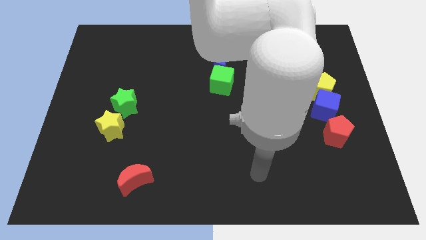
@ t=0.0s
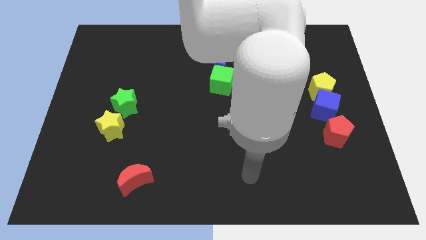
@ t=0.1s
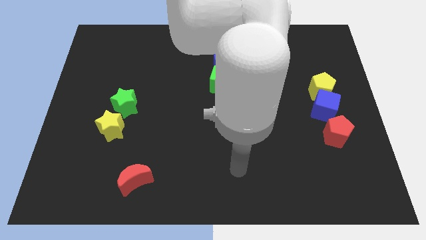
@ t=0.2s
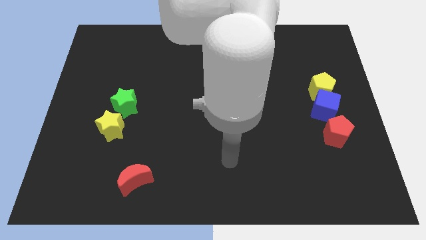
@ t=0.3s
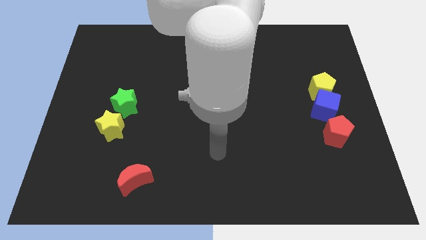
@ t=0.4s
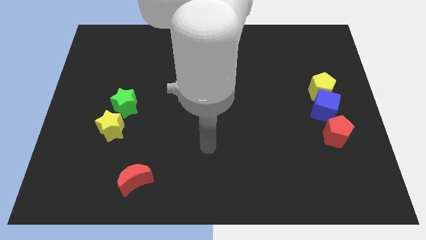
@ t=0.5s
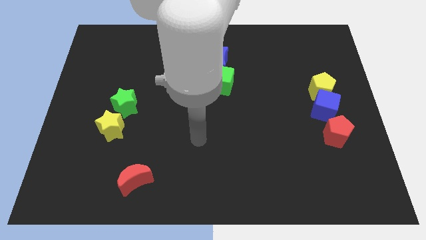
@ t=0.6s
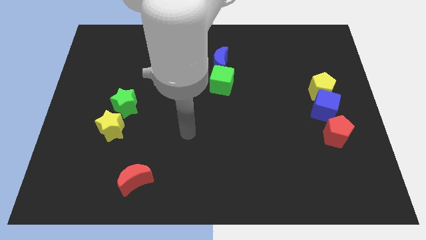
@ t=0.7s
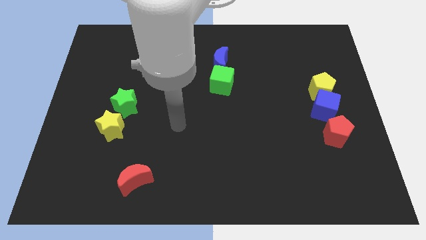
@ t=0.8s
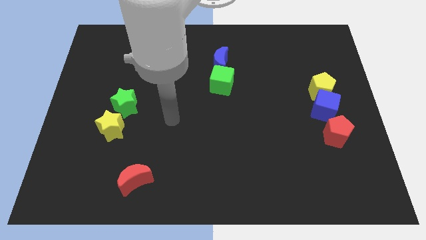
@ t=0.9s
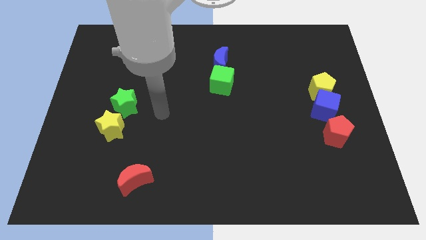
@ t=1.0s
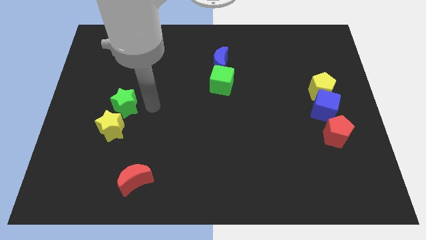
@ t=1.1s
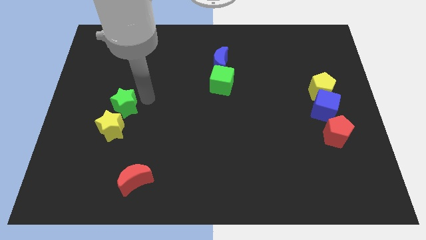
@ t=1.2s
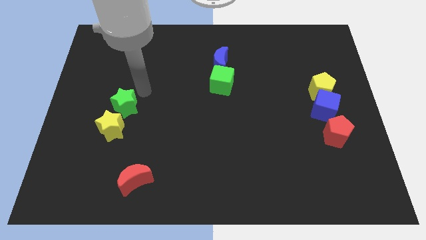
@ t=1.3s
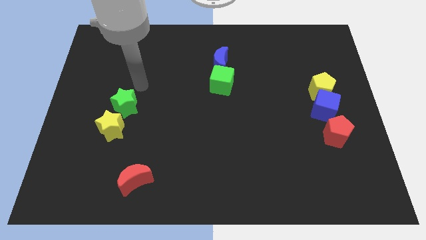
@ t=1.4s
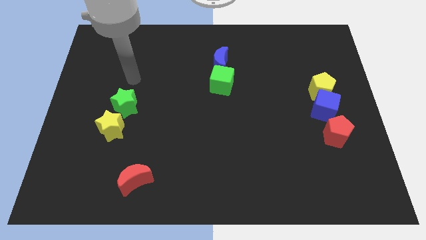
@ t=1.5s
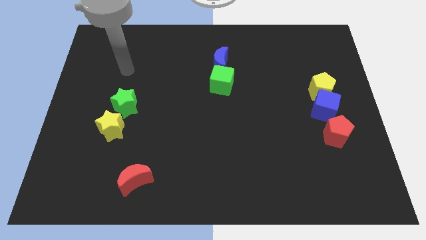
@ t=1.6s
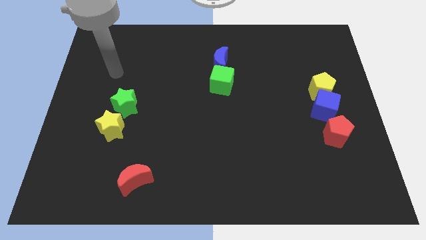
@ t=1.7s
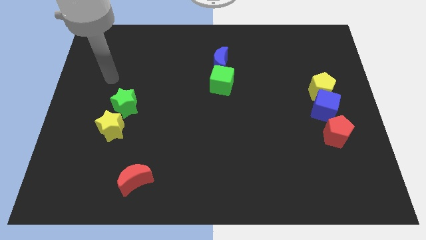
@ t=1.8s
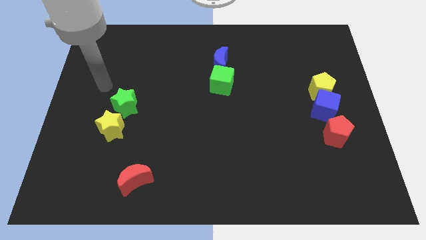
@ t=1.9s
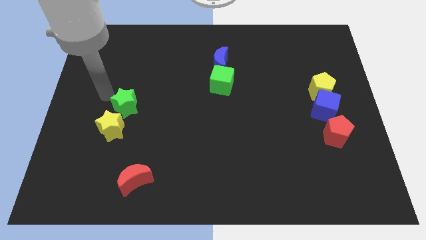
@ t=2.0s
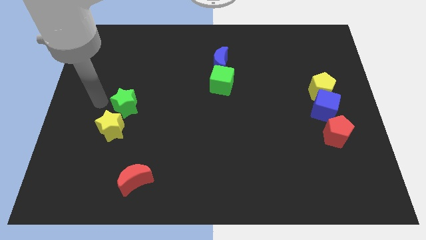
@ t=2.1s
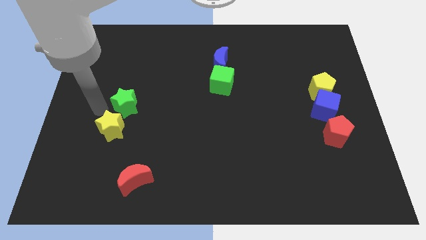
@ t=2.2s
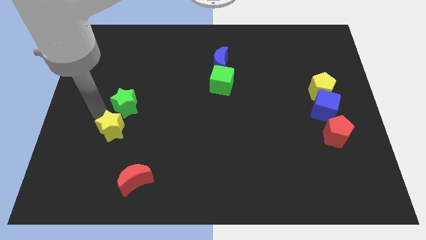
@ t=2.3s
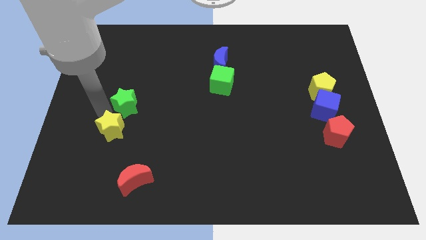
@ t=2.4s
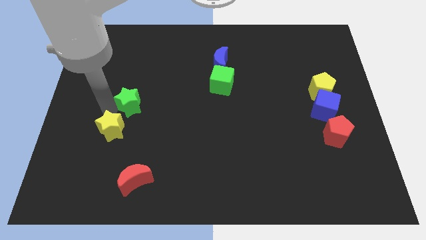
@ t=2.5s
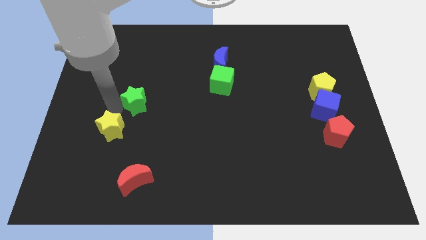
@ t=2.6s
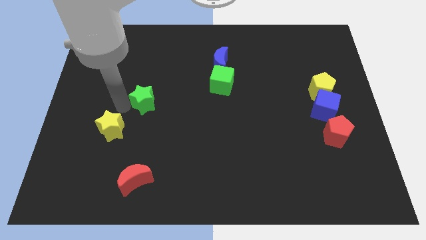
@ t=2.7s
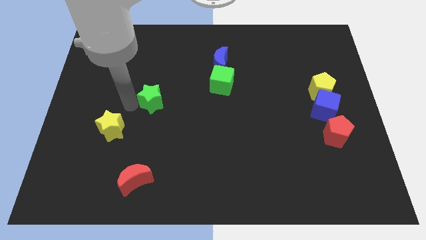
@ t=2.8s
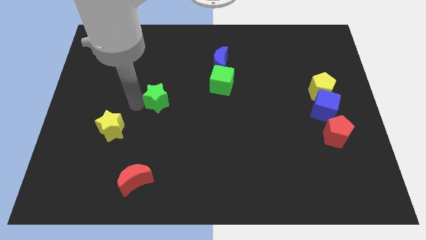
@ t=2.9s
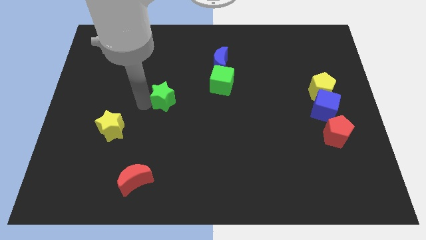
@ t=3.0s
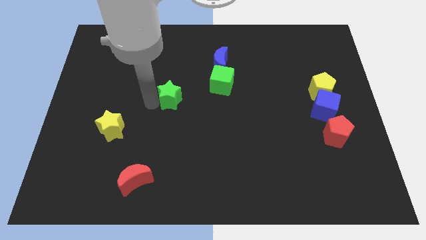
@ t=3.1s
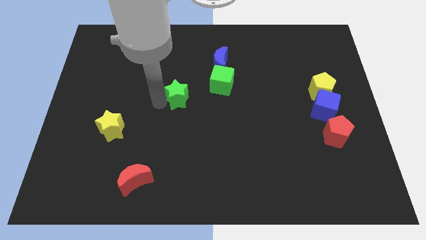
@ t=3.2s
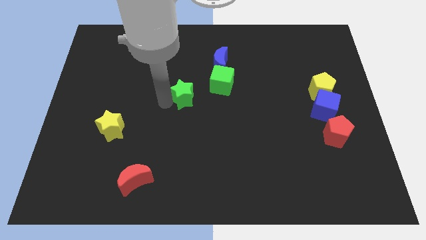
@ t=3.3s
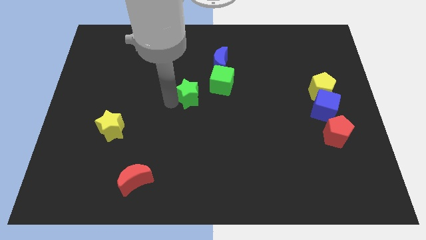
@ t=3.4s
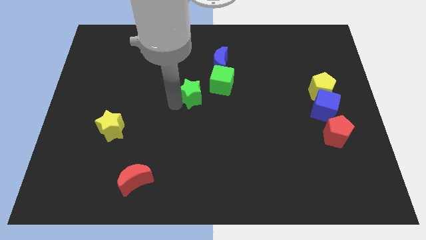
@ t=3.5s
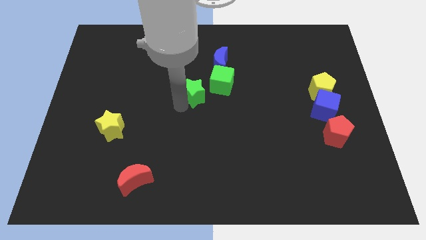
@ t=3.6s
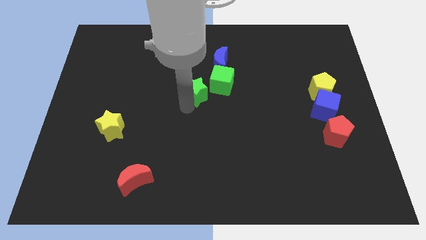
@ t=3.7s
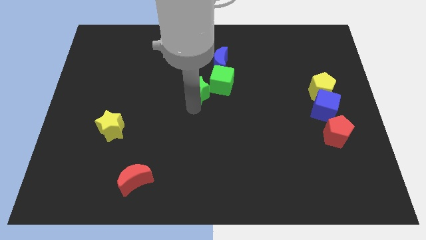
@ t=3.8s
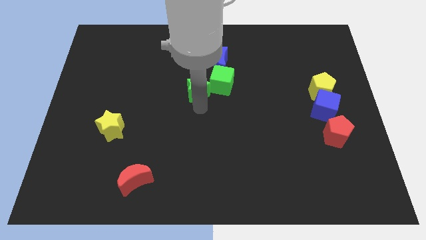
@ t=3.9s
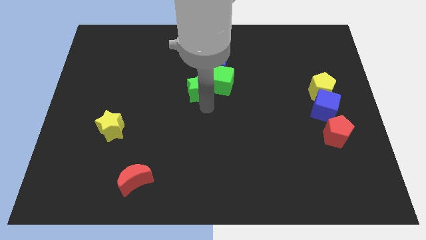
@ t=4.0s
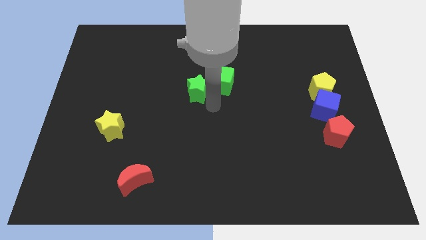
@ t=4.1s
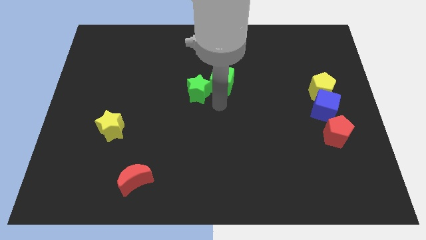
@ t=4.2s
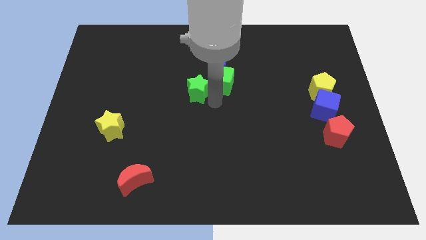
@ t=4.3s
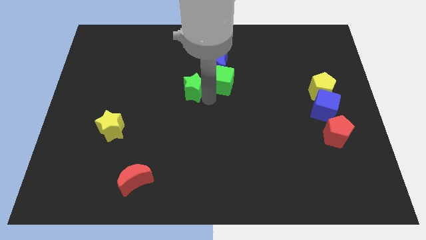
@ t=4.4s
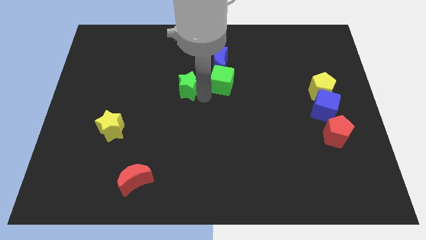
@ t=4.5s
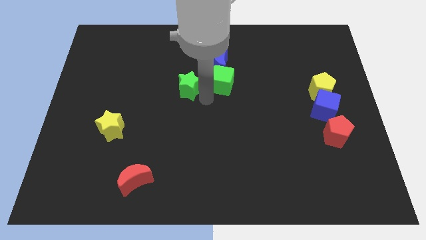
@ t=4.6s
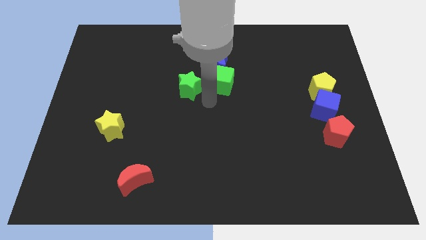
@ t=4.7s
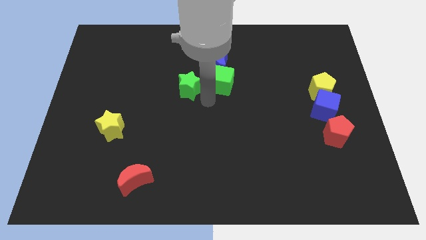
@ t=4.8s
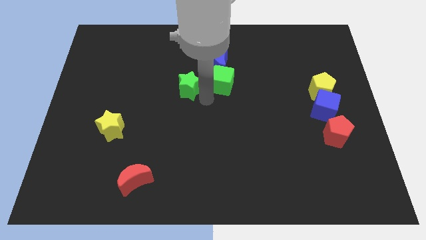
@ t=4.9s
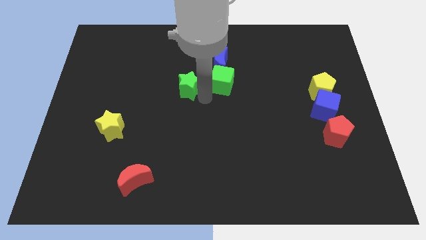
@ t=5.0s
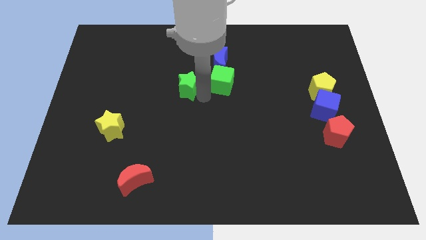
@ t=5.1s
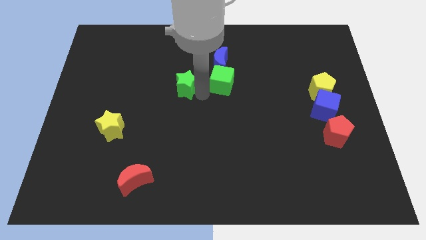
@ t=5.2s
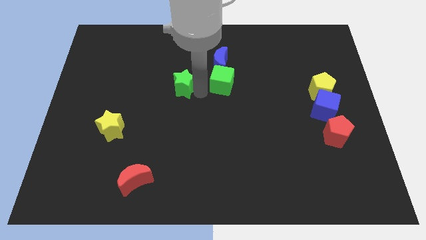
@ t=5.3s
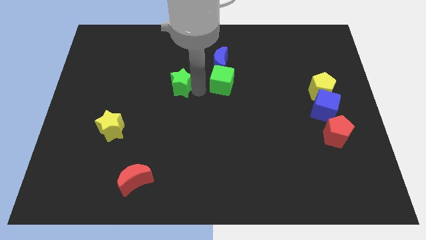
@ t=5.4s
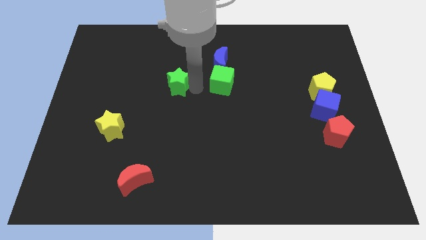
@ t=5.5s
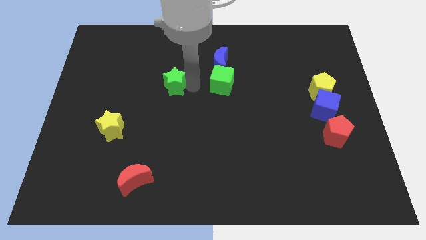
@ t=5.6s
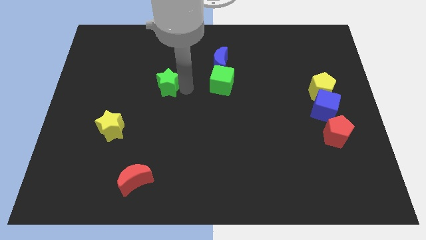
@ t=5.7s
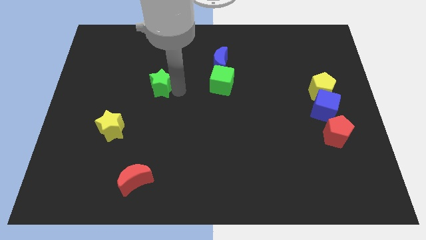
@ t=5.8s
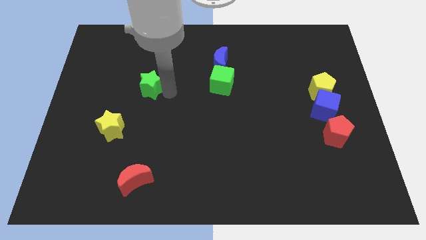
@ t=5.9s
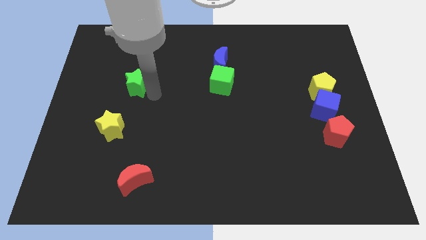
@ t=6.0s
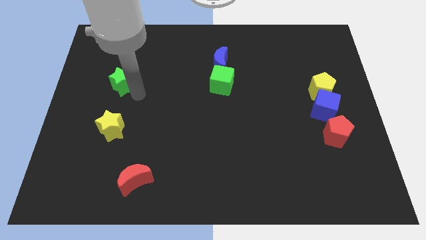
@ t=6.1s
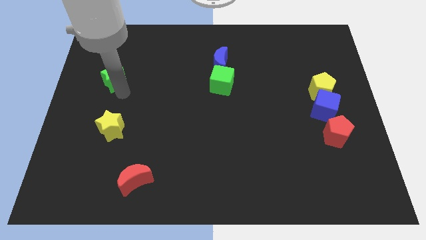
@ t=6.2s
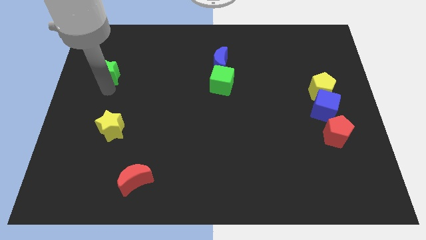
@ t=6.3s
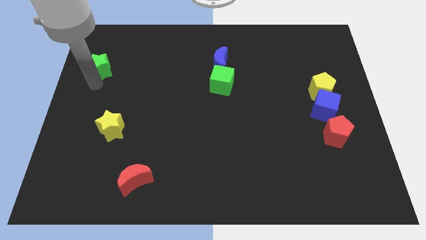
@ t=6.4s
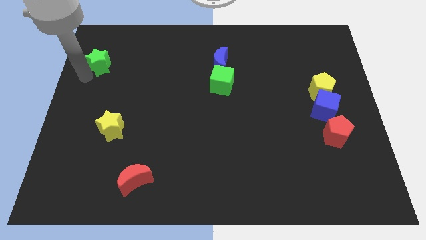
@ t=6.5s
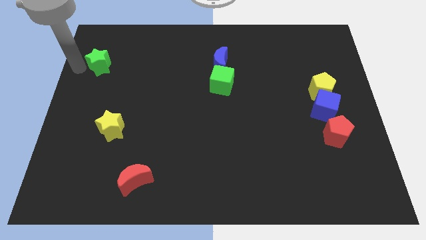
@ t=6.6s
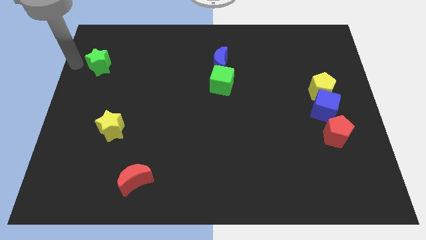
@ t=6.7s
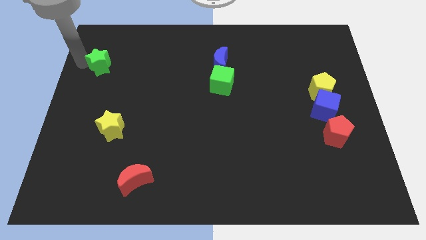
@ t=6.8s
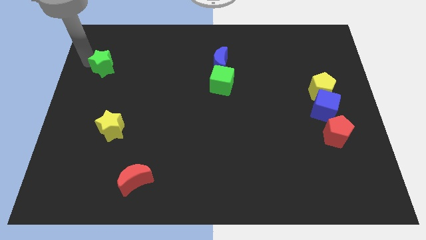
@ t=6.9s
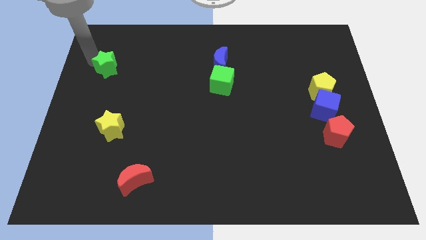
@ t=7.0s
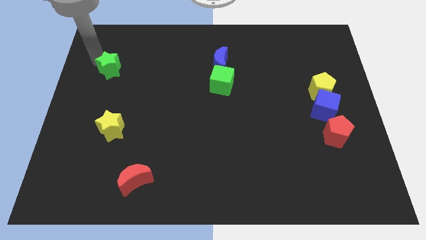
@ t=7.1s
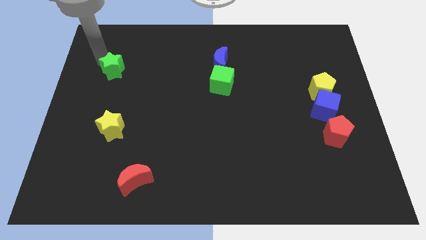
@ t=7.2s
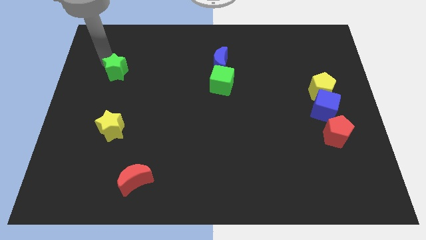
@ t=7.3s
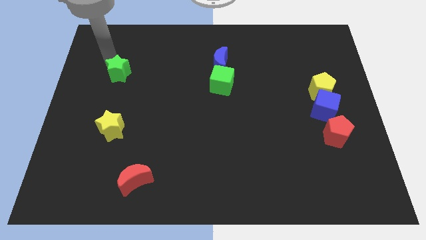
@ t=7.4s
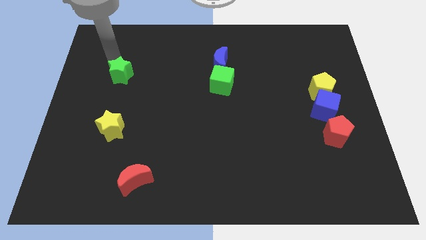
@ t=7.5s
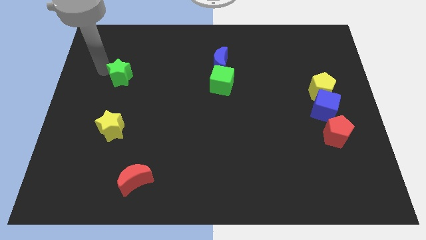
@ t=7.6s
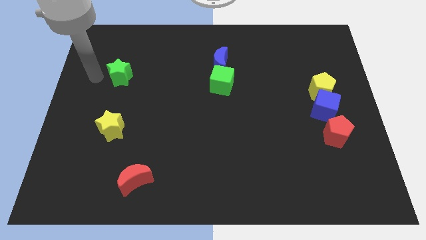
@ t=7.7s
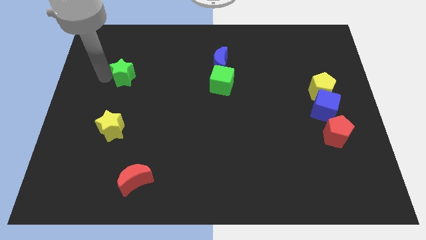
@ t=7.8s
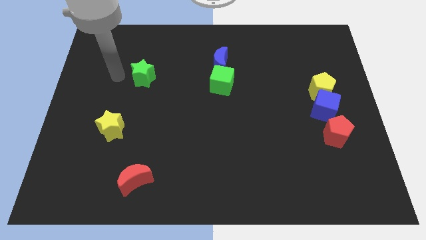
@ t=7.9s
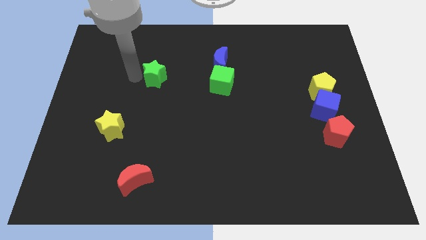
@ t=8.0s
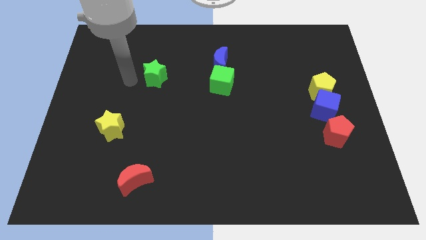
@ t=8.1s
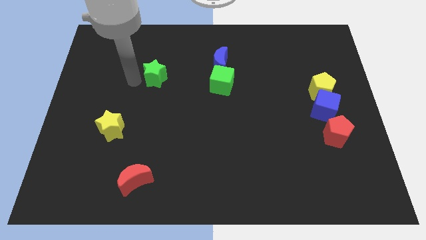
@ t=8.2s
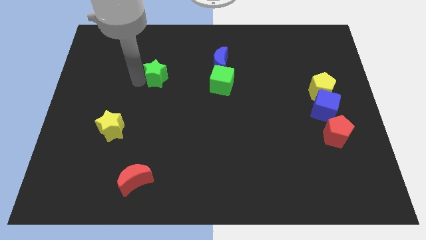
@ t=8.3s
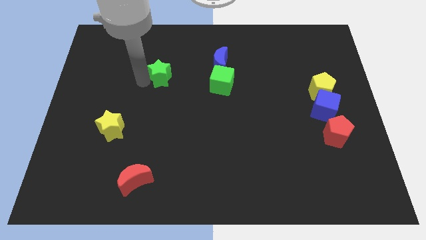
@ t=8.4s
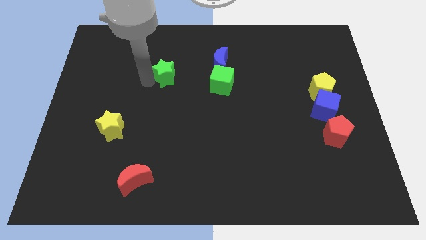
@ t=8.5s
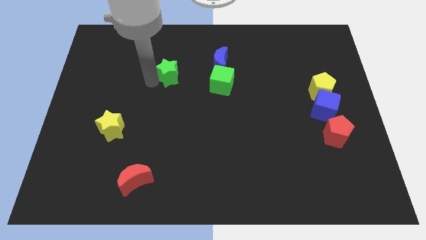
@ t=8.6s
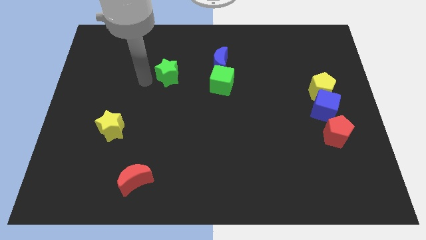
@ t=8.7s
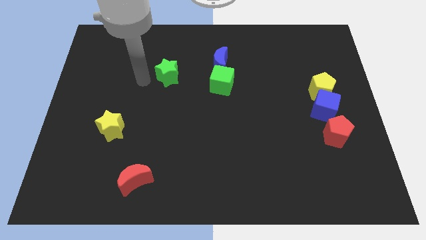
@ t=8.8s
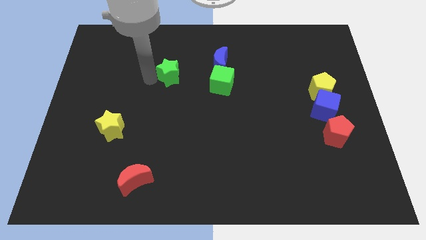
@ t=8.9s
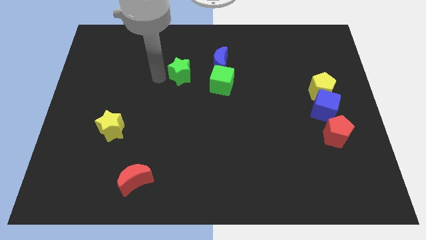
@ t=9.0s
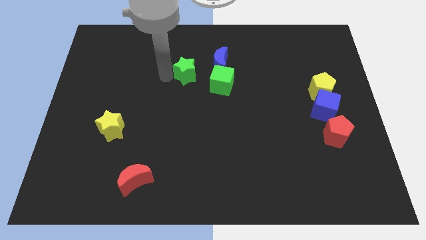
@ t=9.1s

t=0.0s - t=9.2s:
slide the green star to the top left of the green cube
